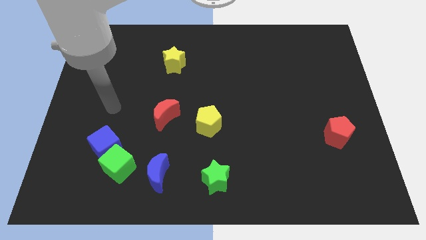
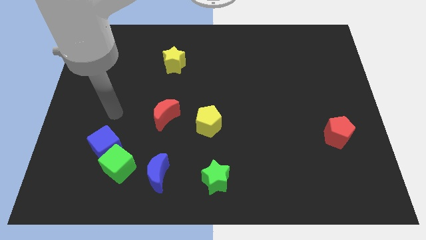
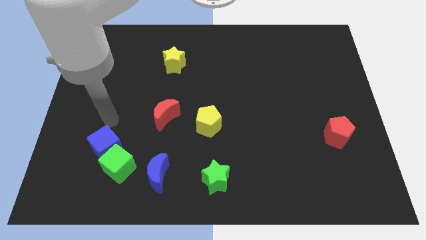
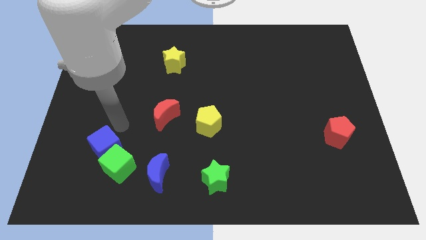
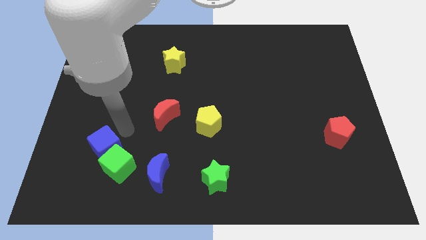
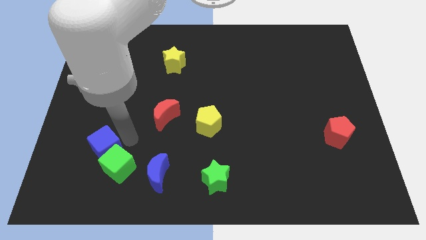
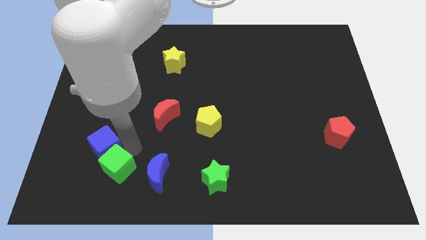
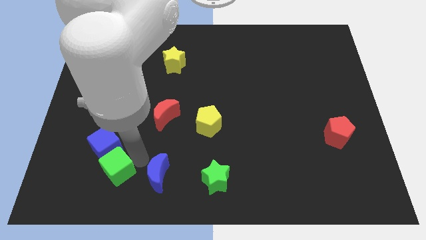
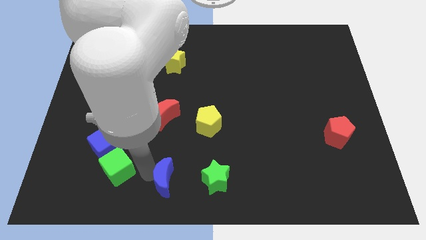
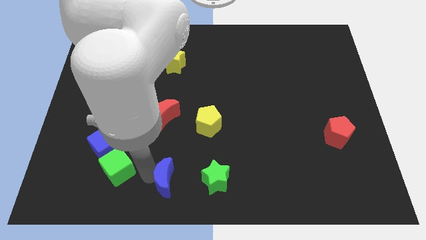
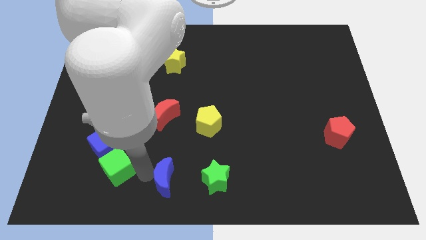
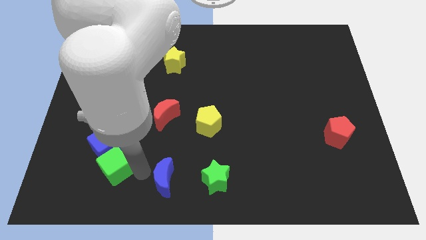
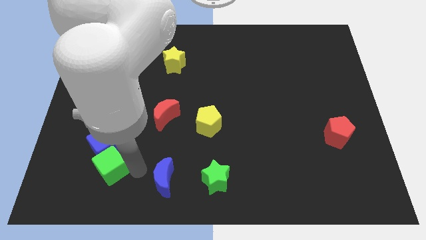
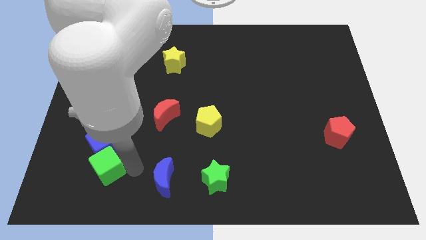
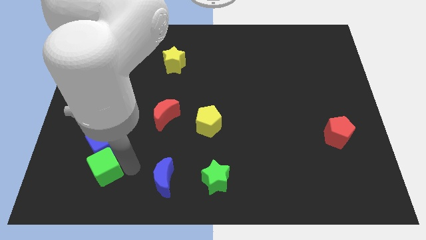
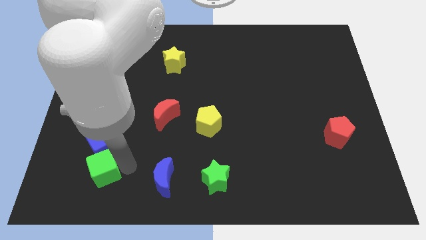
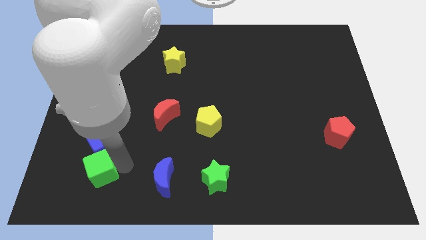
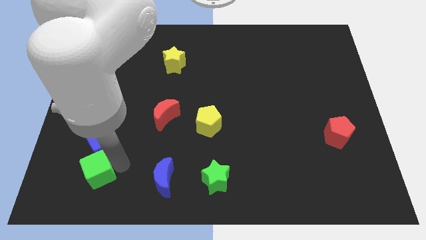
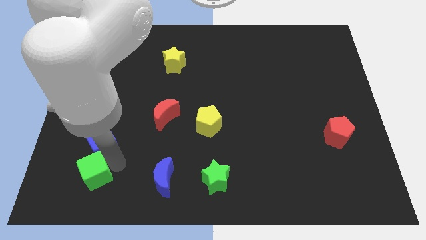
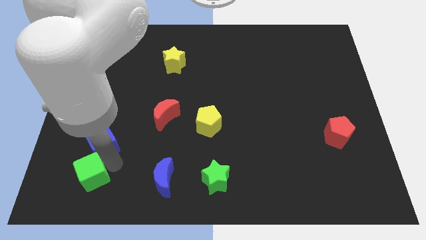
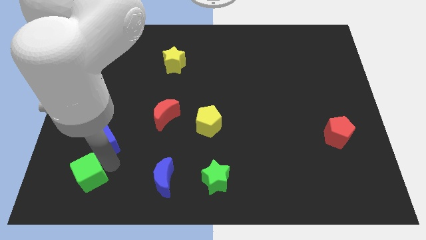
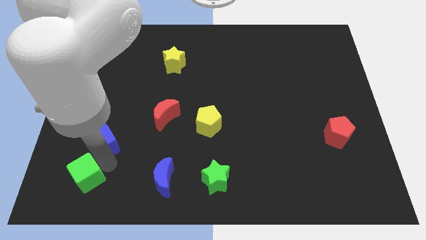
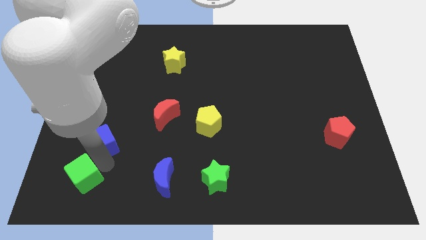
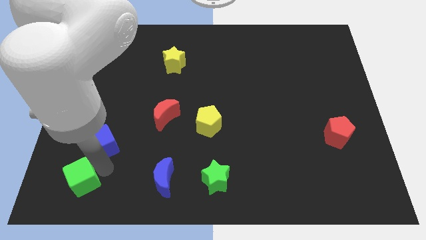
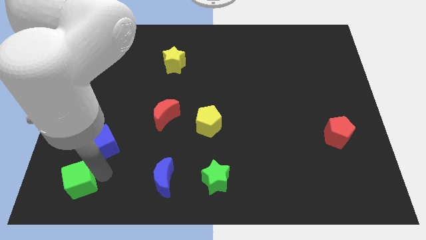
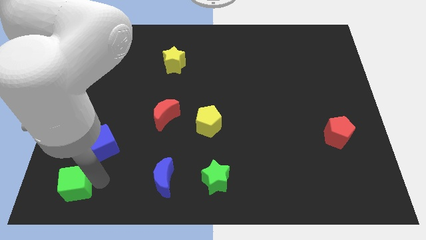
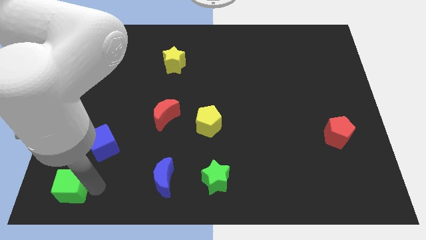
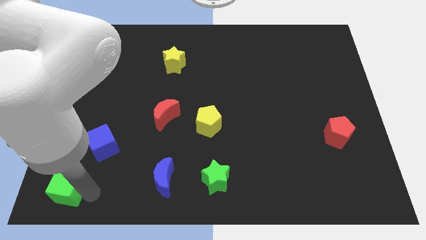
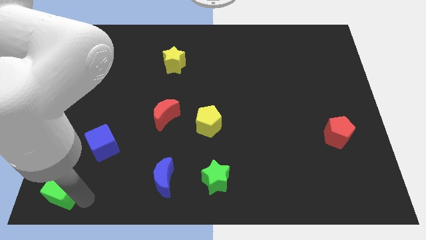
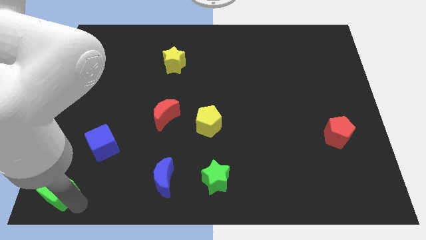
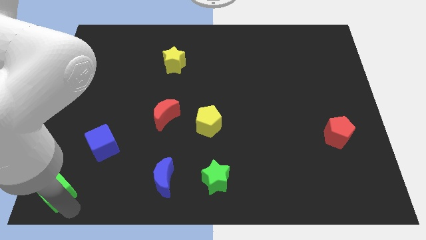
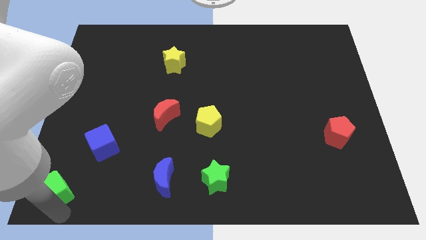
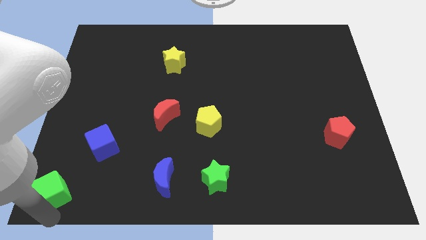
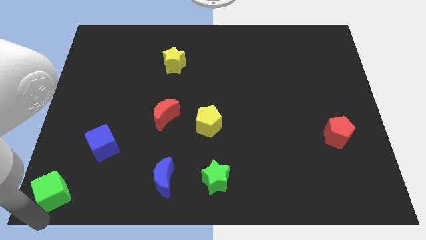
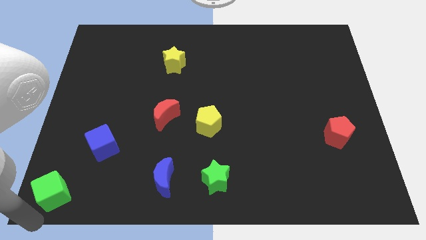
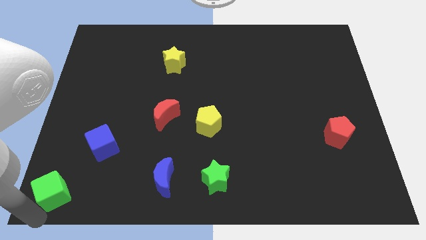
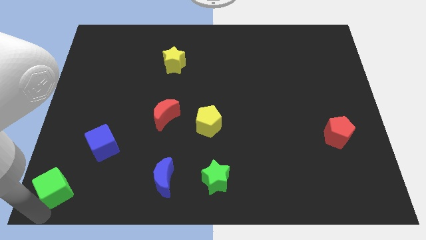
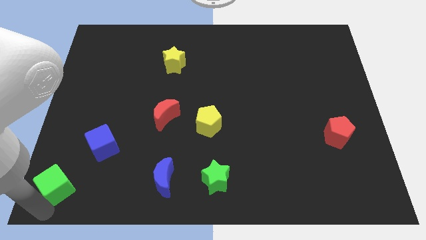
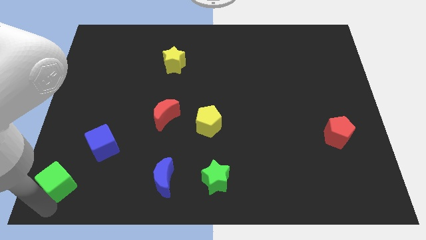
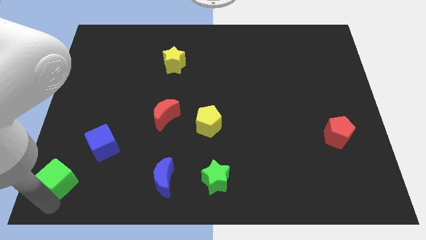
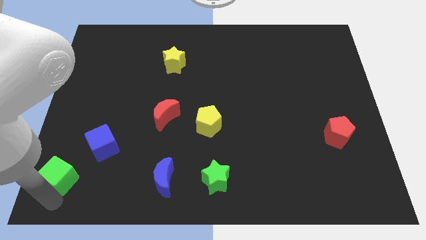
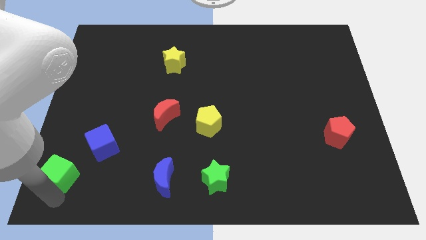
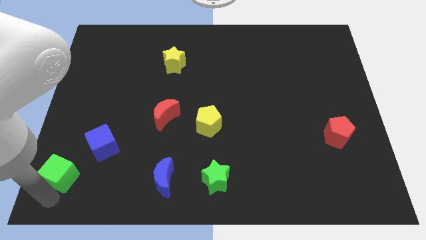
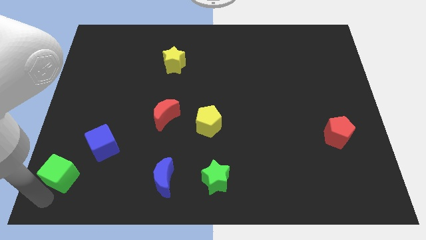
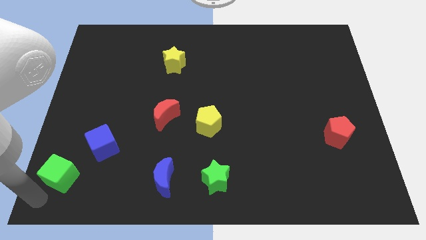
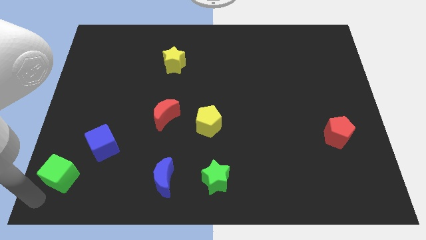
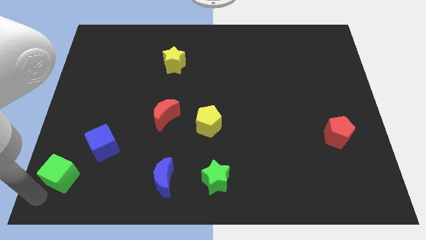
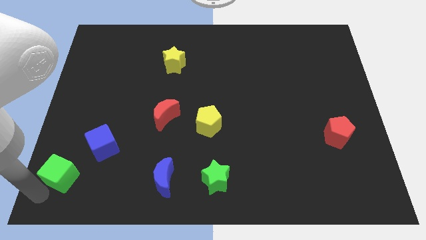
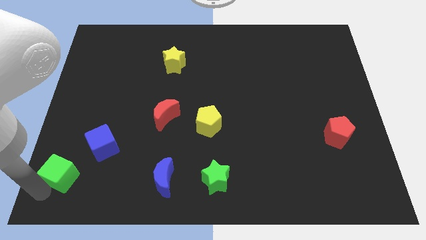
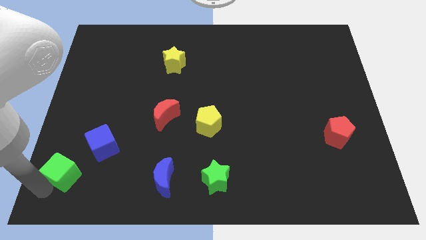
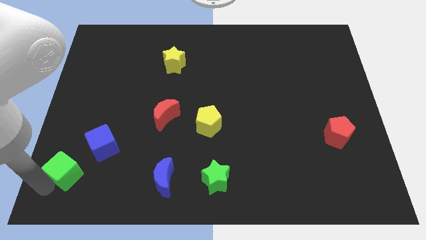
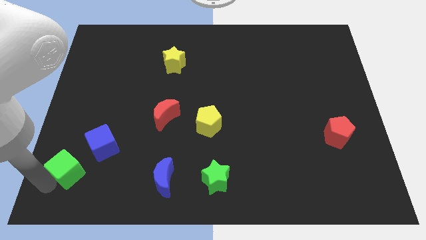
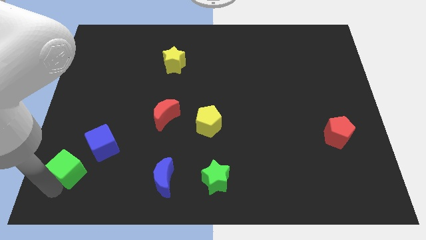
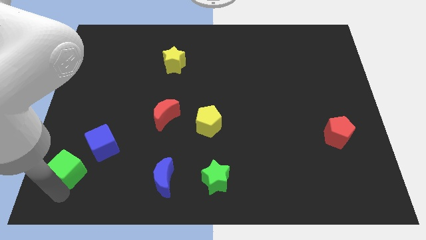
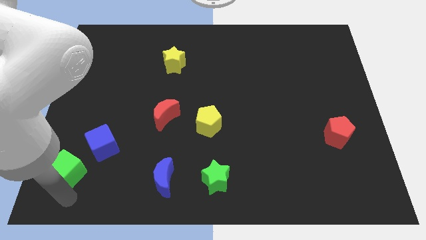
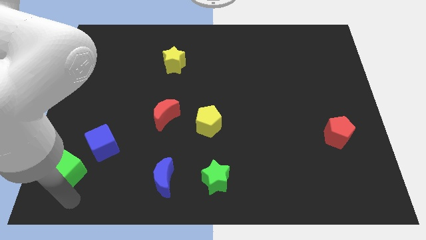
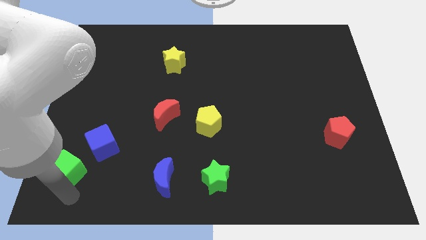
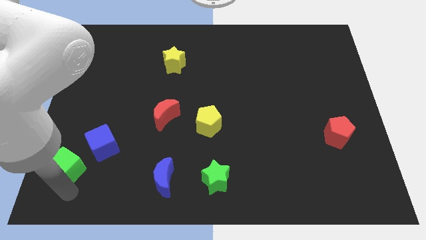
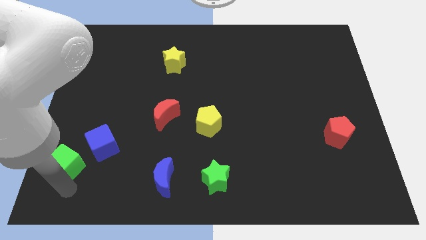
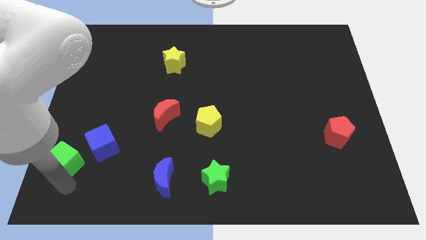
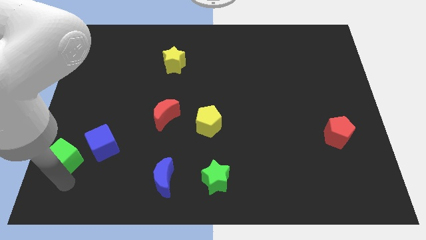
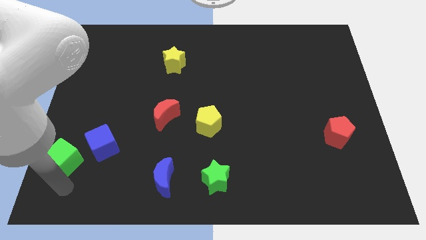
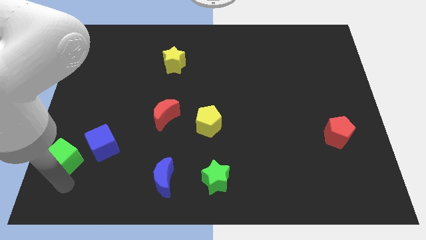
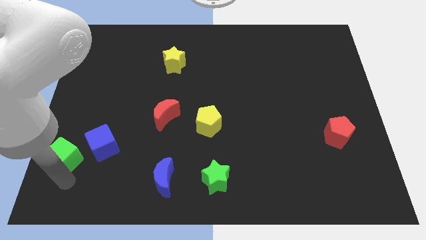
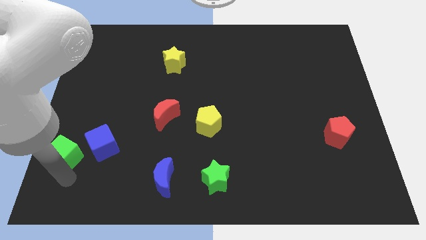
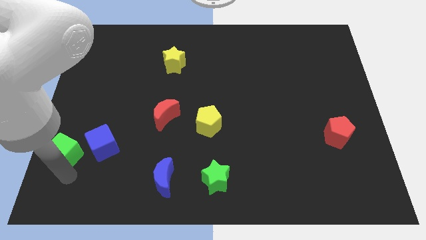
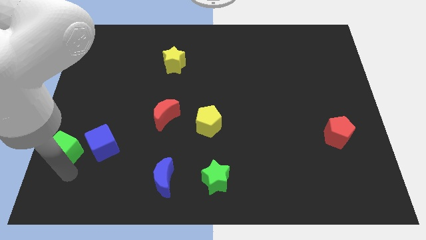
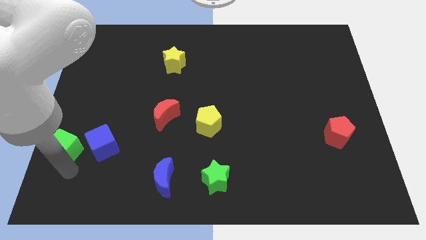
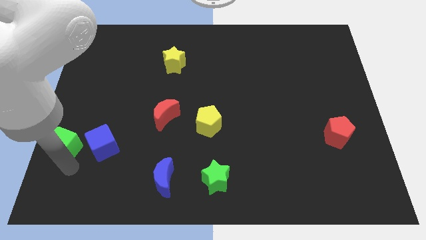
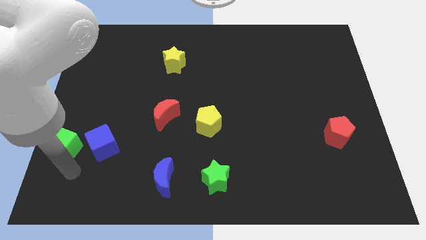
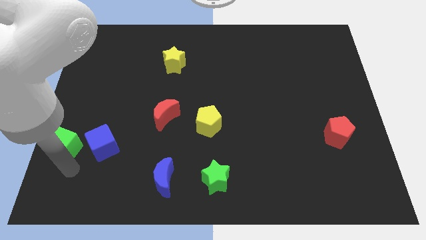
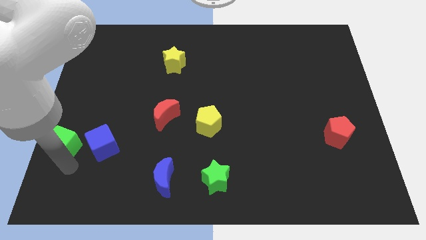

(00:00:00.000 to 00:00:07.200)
move the green cube to the center left
